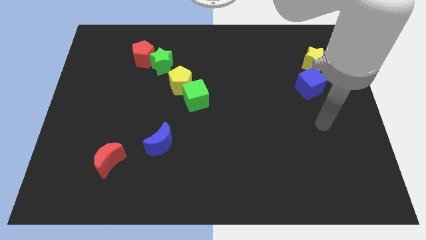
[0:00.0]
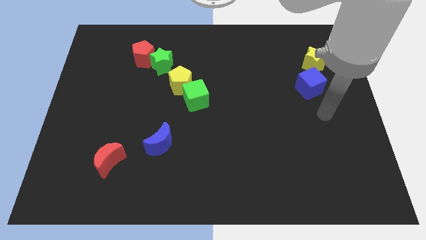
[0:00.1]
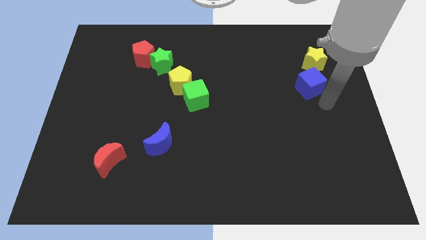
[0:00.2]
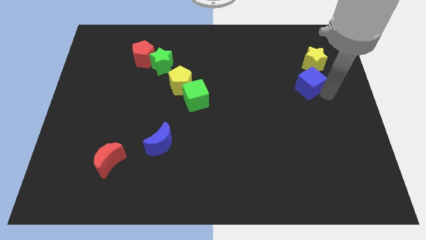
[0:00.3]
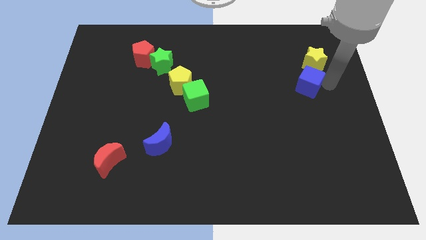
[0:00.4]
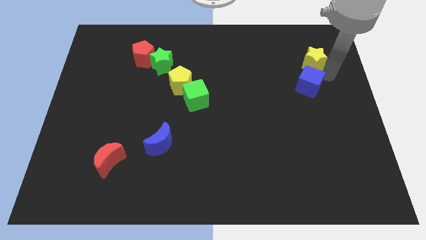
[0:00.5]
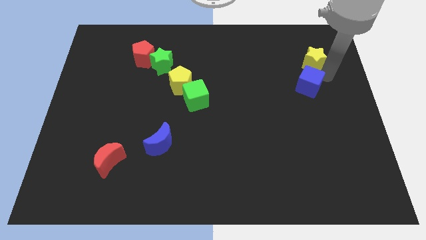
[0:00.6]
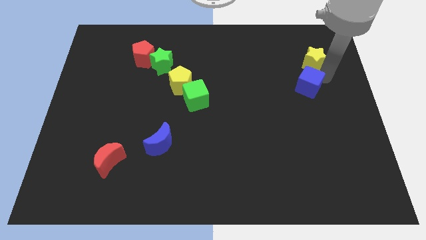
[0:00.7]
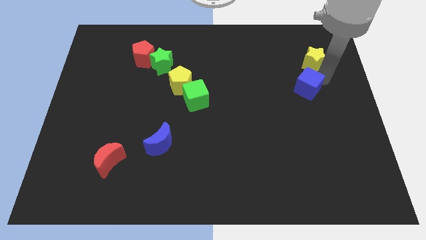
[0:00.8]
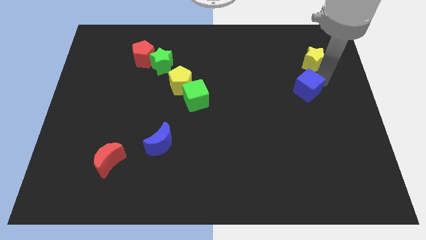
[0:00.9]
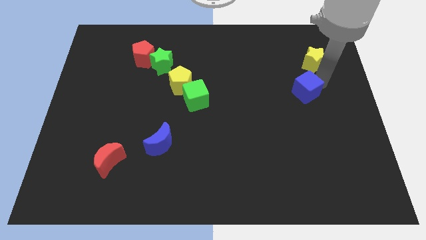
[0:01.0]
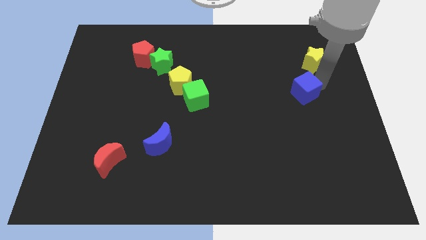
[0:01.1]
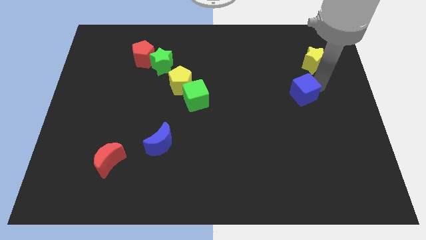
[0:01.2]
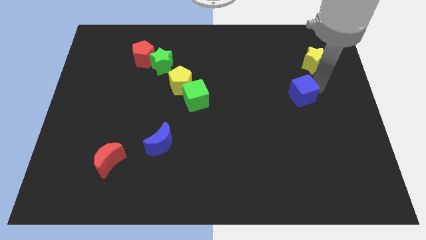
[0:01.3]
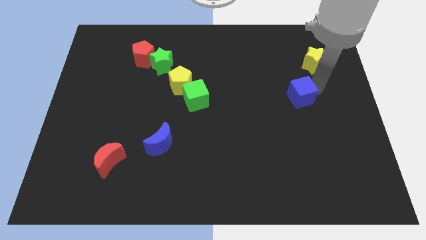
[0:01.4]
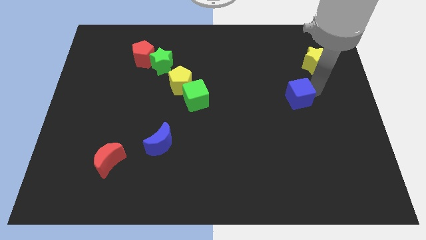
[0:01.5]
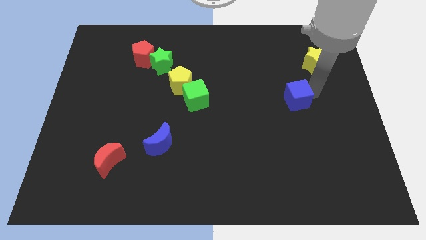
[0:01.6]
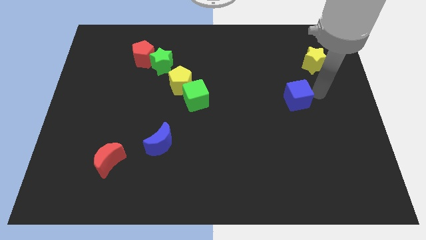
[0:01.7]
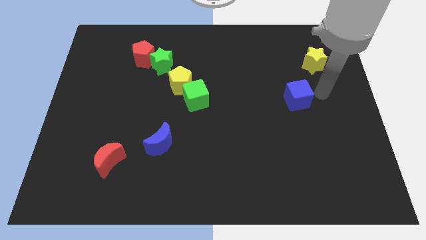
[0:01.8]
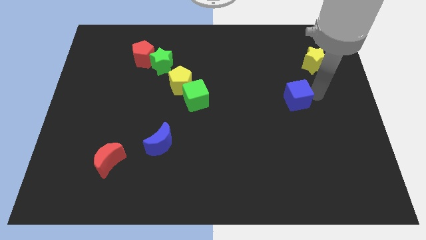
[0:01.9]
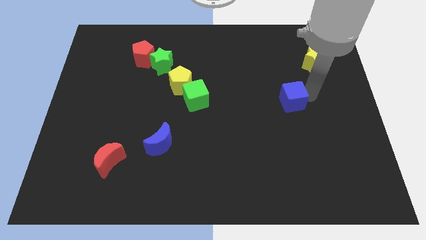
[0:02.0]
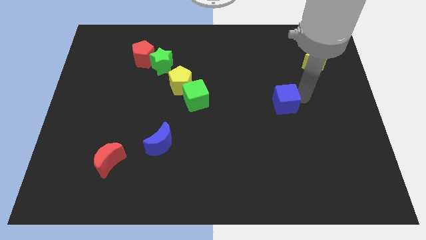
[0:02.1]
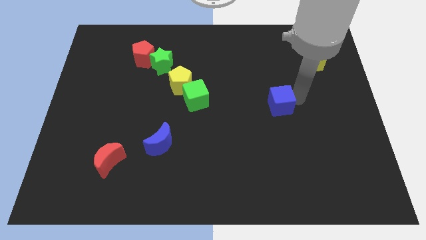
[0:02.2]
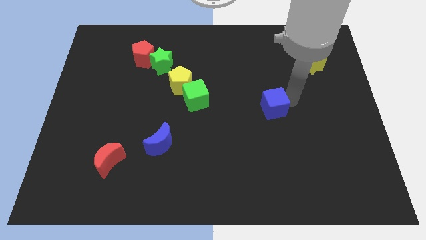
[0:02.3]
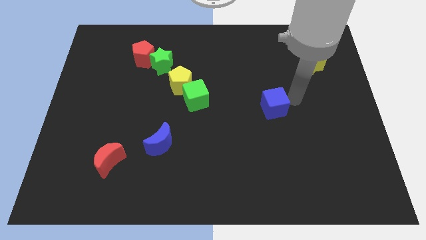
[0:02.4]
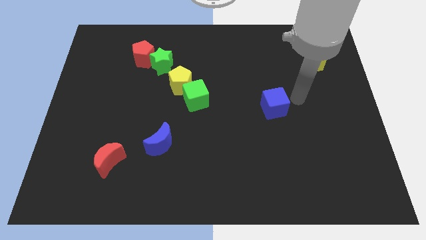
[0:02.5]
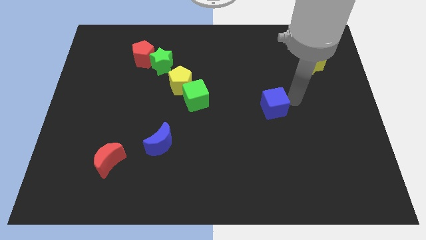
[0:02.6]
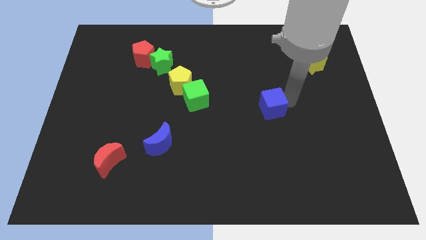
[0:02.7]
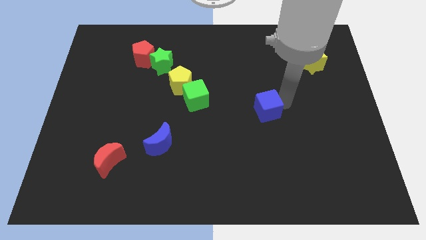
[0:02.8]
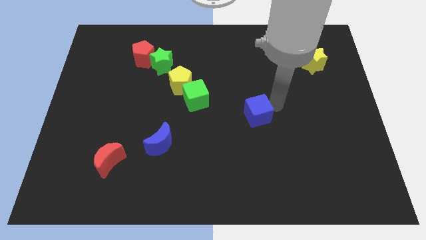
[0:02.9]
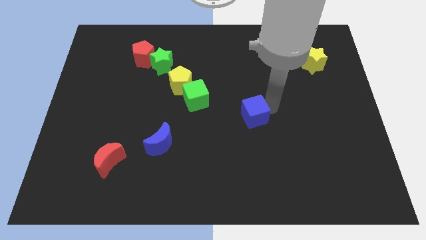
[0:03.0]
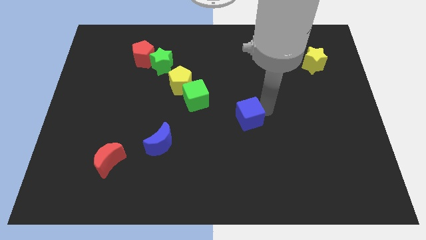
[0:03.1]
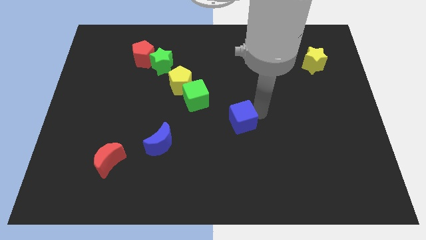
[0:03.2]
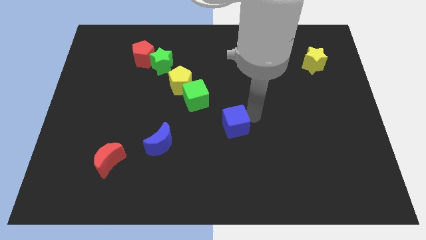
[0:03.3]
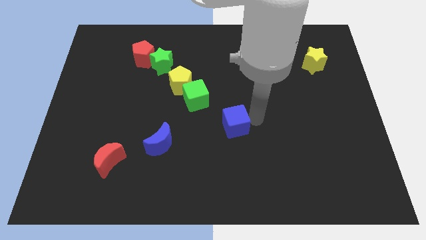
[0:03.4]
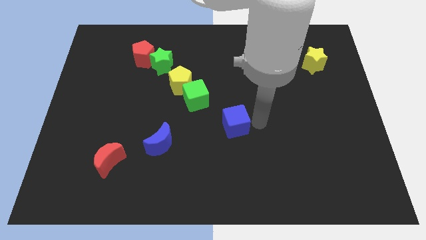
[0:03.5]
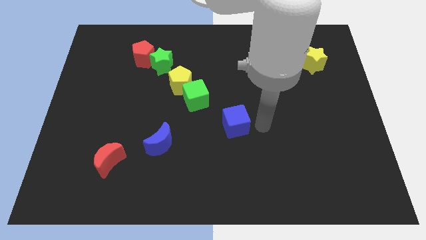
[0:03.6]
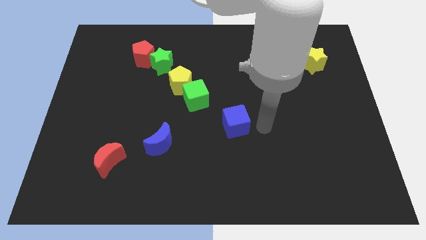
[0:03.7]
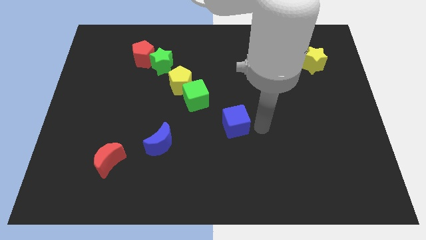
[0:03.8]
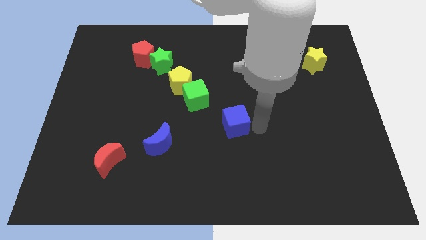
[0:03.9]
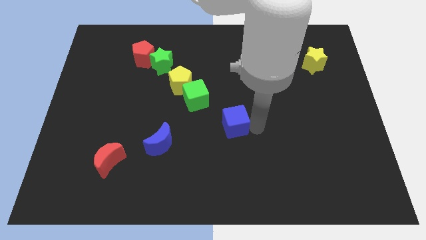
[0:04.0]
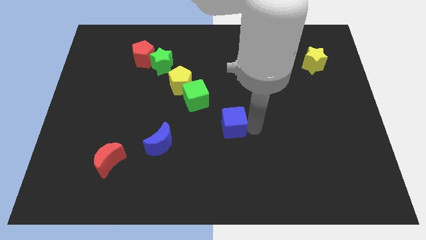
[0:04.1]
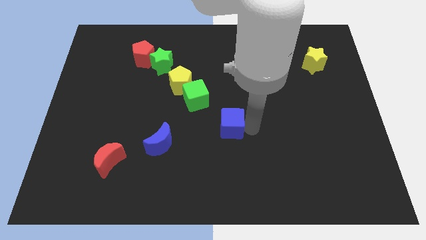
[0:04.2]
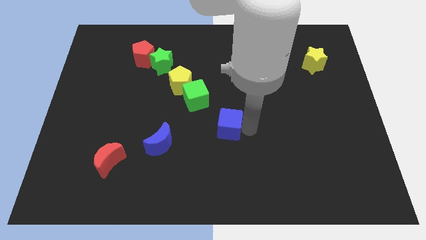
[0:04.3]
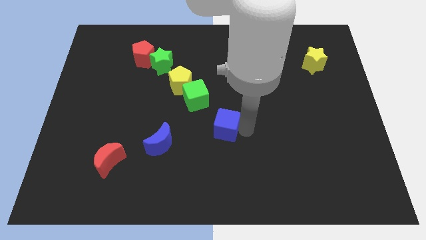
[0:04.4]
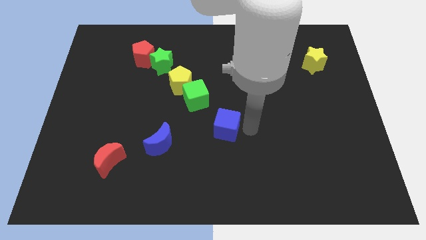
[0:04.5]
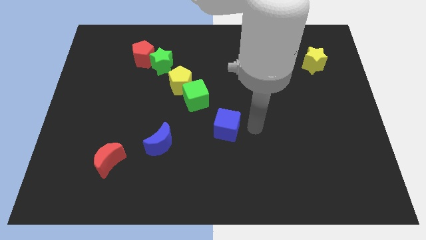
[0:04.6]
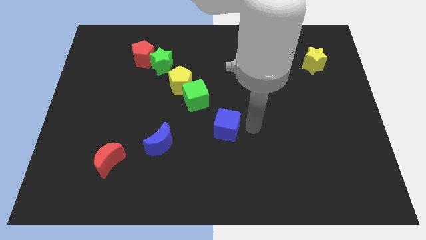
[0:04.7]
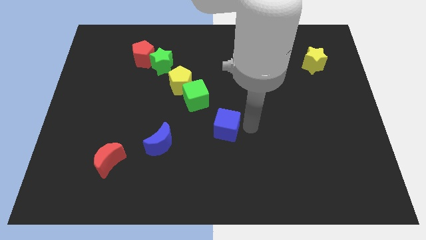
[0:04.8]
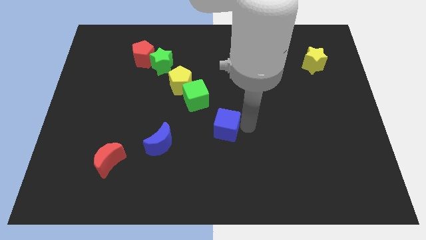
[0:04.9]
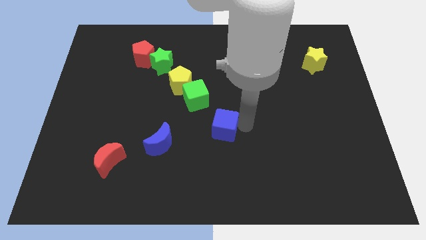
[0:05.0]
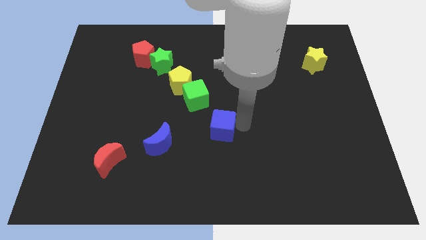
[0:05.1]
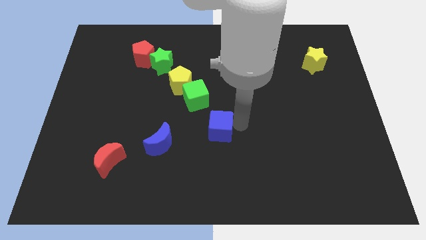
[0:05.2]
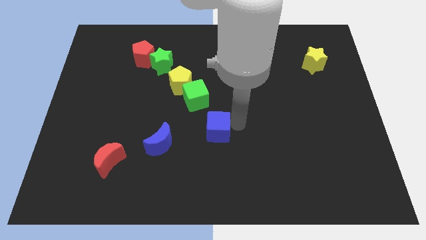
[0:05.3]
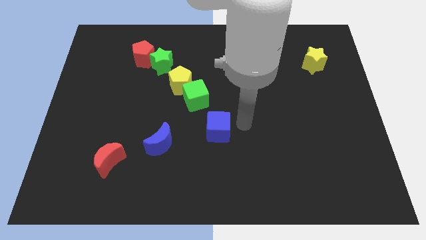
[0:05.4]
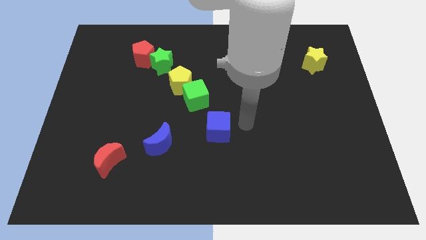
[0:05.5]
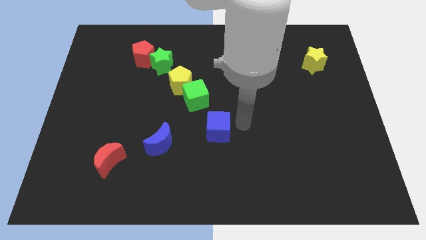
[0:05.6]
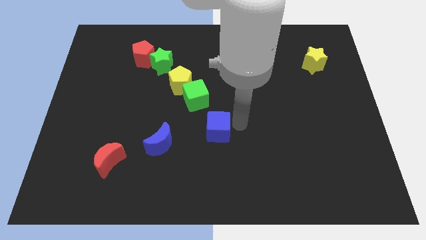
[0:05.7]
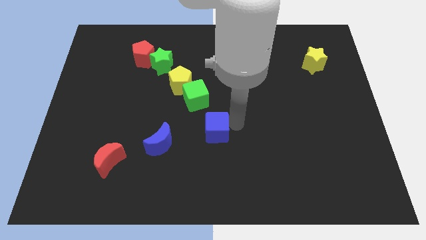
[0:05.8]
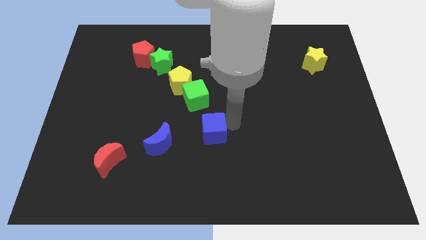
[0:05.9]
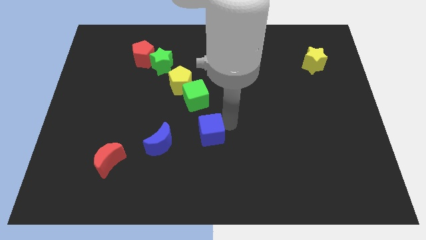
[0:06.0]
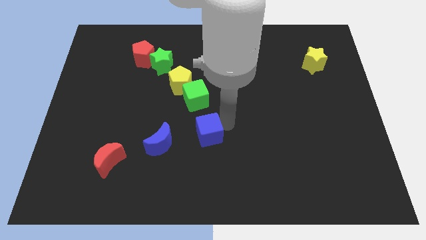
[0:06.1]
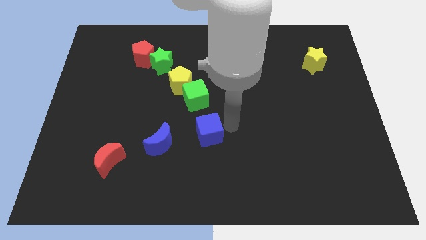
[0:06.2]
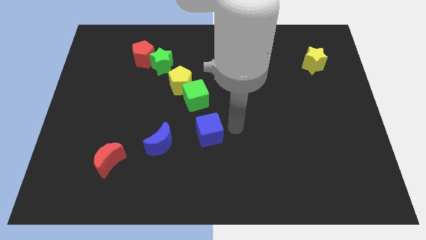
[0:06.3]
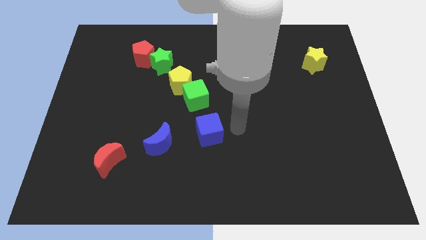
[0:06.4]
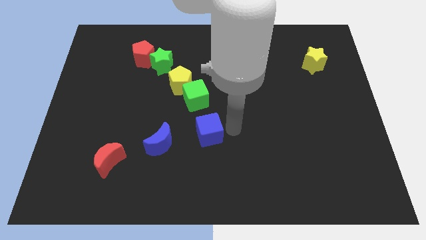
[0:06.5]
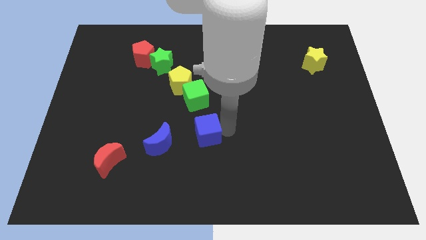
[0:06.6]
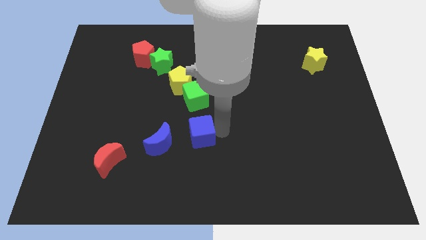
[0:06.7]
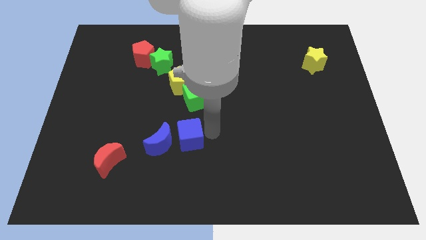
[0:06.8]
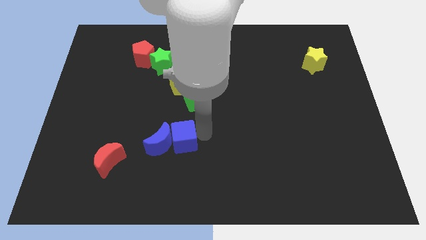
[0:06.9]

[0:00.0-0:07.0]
move the blue cube to the blue moon
